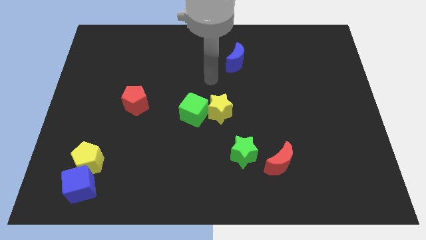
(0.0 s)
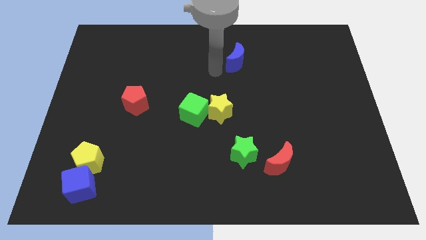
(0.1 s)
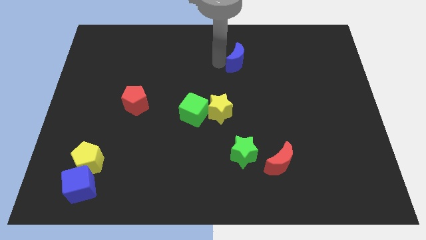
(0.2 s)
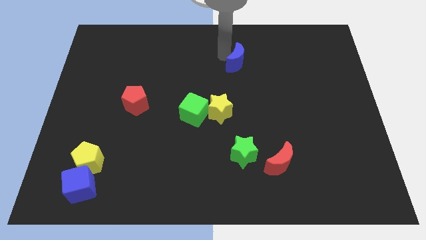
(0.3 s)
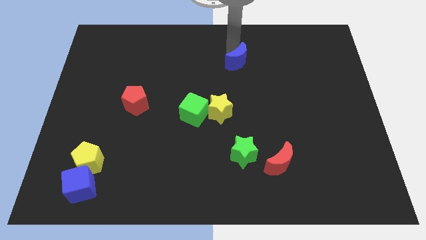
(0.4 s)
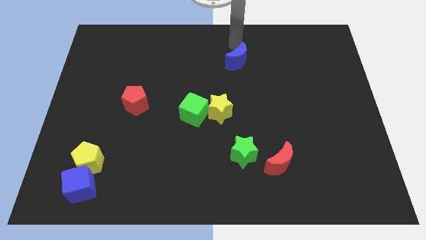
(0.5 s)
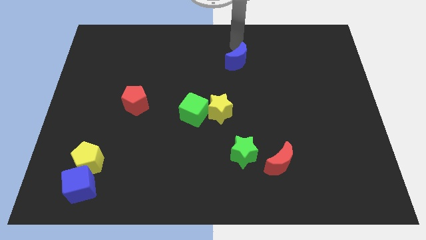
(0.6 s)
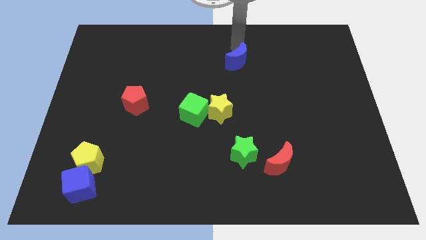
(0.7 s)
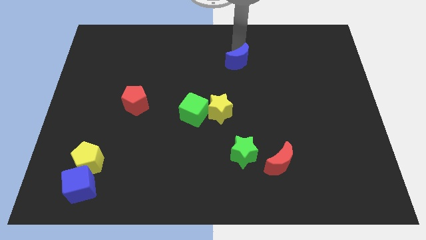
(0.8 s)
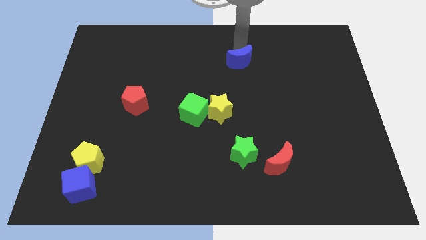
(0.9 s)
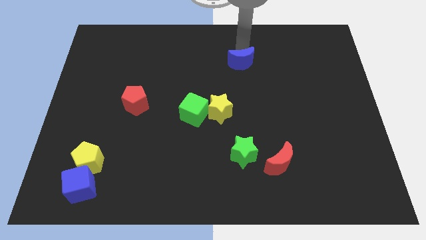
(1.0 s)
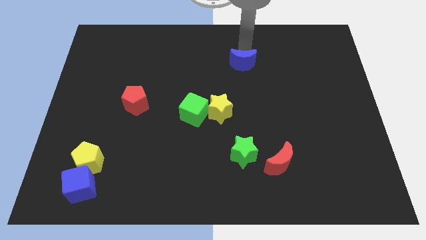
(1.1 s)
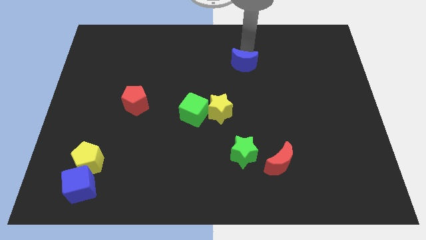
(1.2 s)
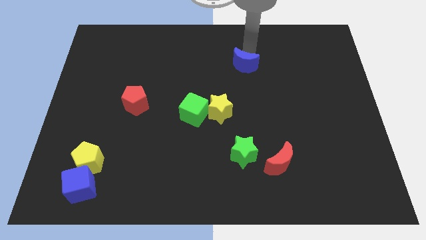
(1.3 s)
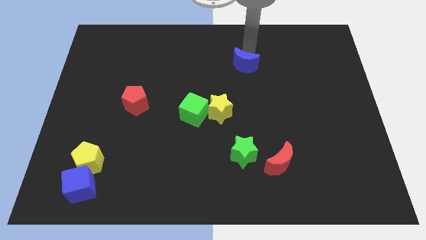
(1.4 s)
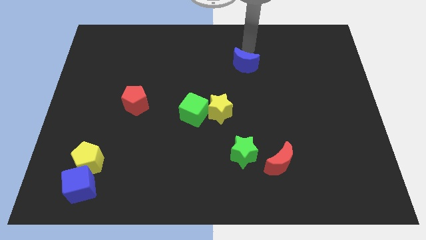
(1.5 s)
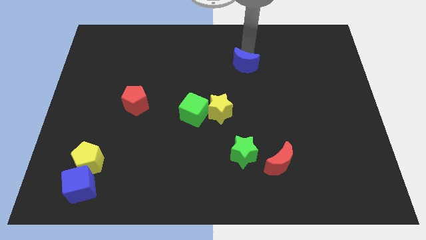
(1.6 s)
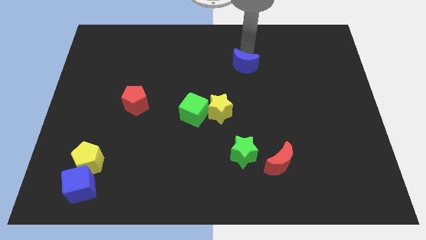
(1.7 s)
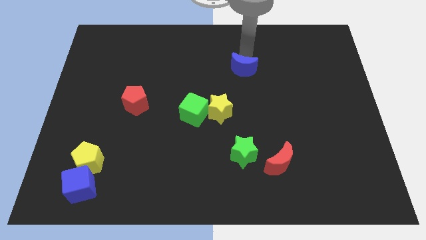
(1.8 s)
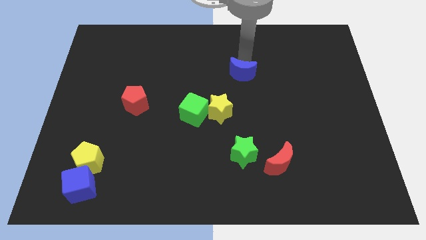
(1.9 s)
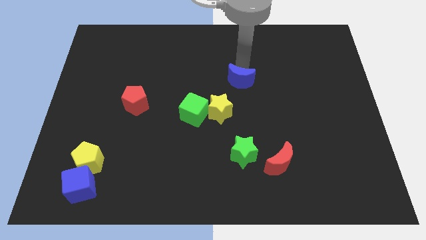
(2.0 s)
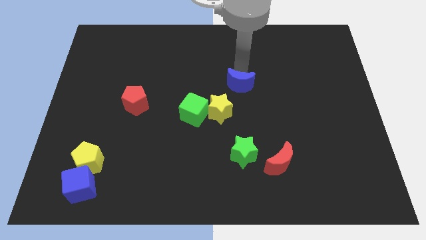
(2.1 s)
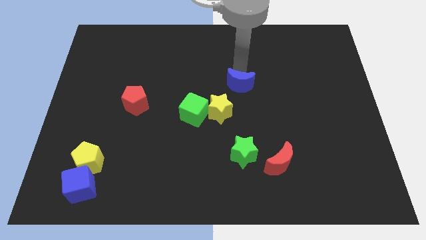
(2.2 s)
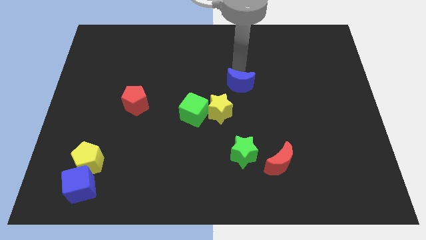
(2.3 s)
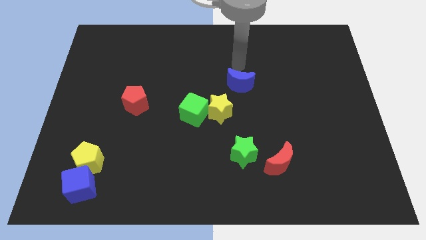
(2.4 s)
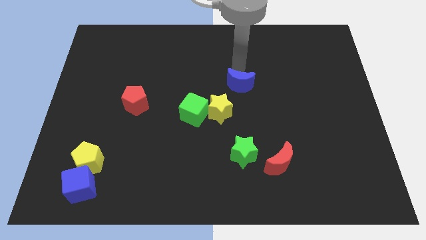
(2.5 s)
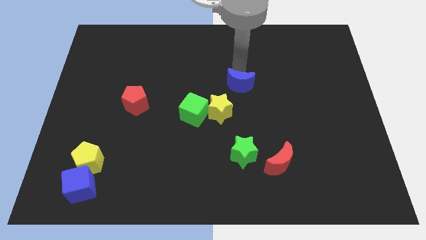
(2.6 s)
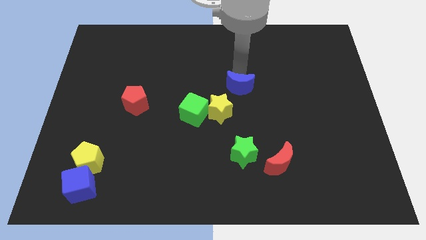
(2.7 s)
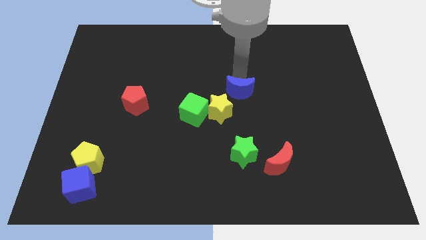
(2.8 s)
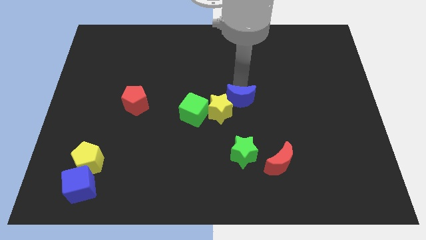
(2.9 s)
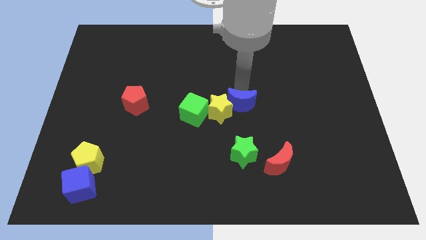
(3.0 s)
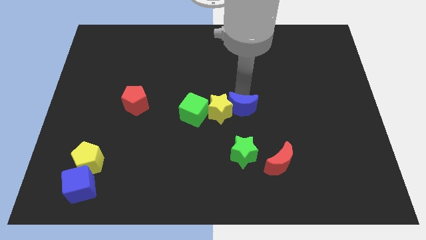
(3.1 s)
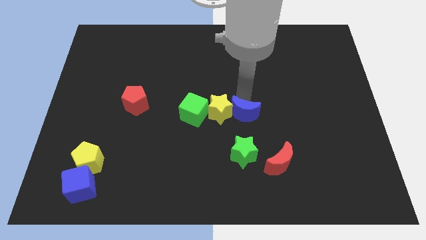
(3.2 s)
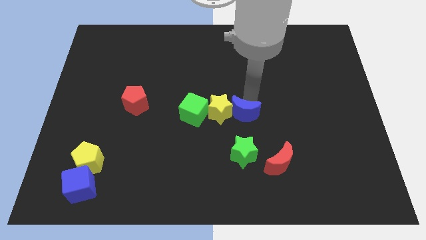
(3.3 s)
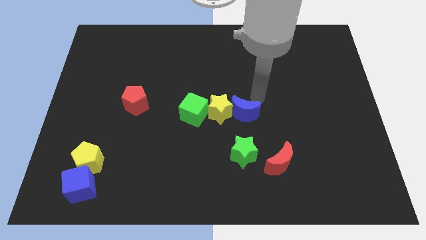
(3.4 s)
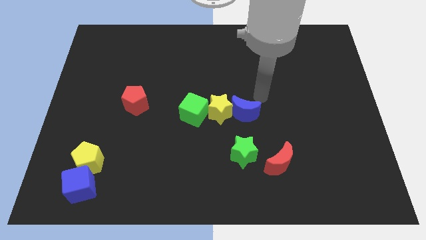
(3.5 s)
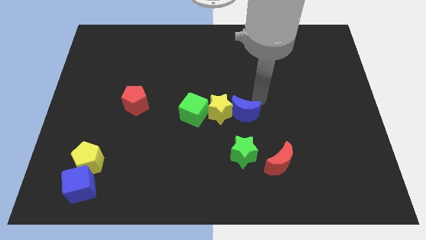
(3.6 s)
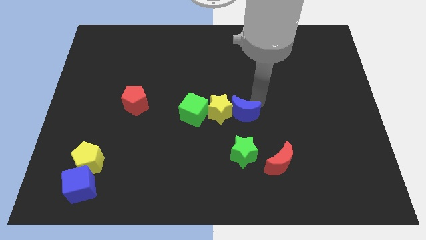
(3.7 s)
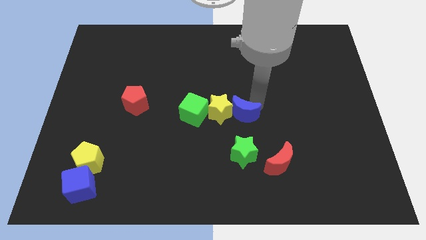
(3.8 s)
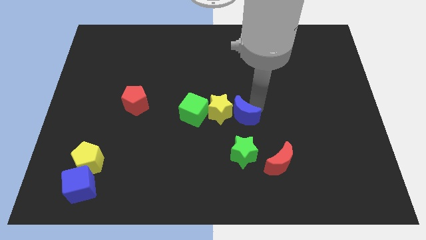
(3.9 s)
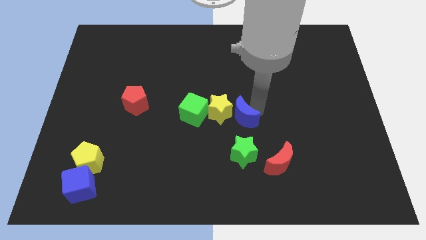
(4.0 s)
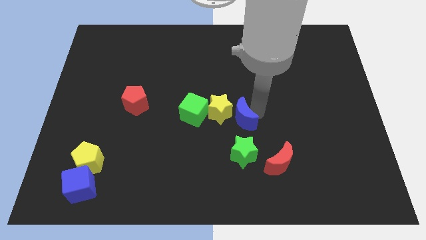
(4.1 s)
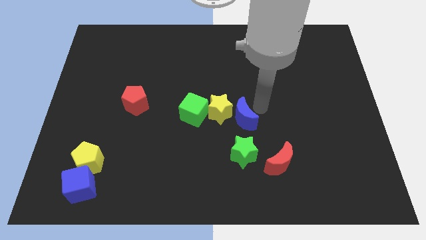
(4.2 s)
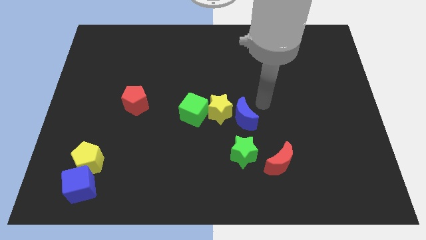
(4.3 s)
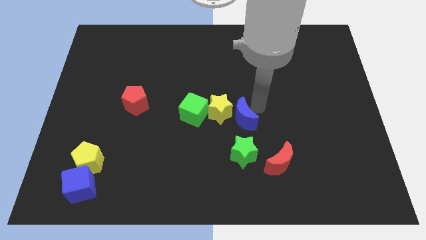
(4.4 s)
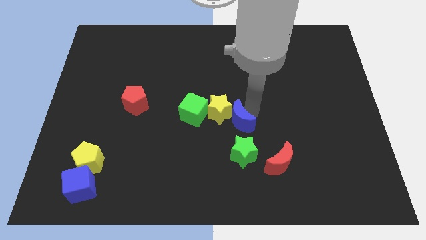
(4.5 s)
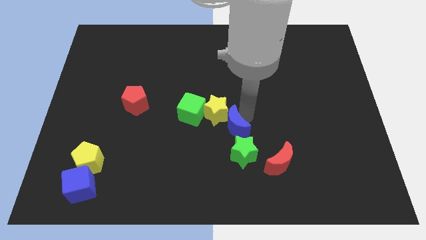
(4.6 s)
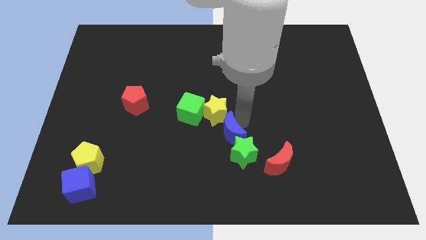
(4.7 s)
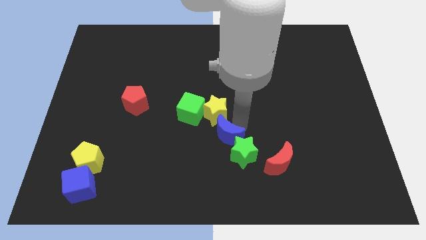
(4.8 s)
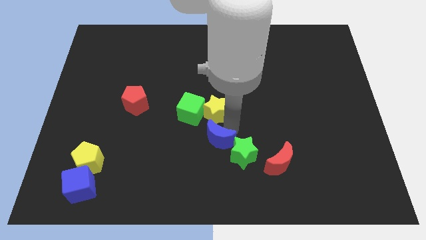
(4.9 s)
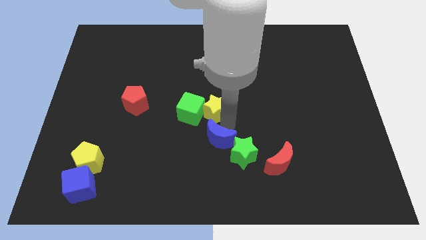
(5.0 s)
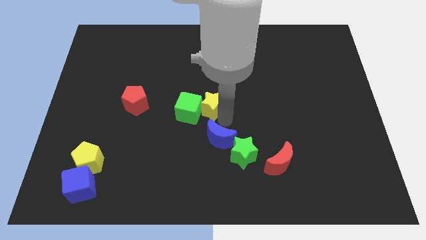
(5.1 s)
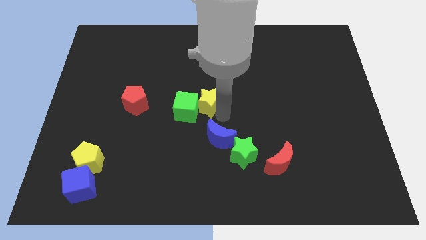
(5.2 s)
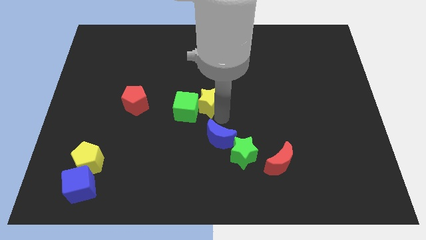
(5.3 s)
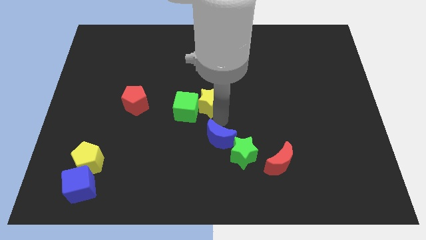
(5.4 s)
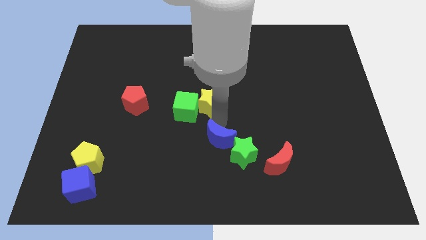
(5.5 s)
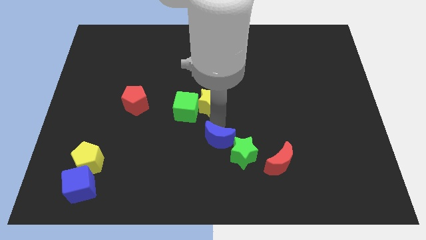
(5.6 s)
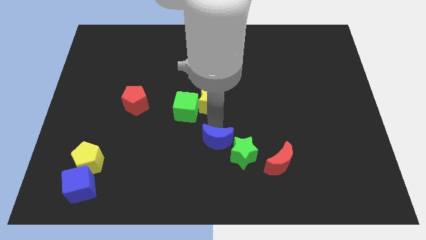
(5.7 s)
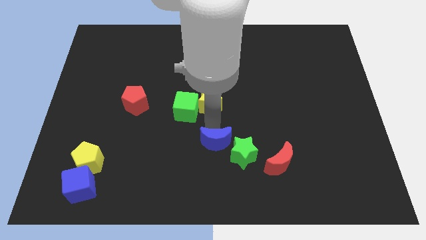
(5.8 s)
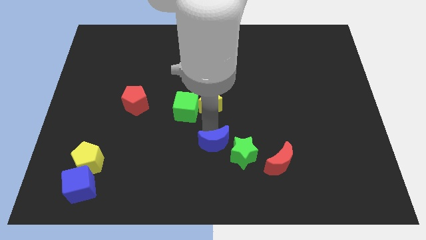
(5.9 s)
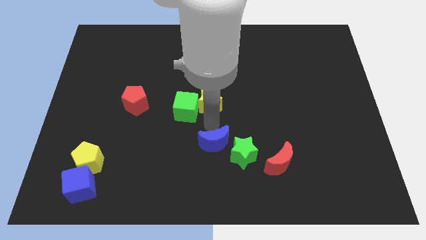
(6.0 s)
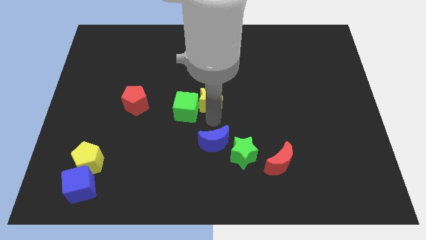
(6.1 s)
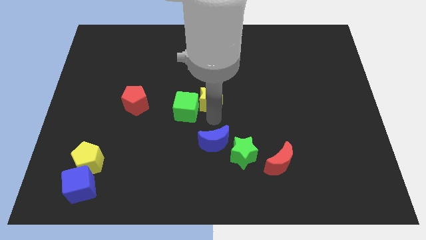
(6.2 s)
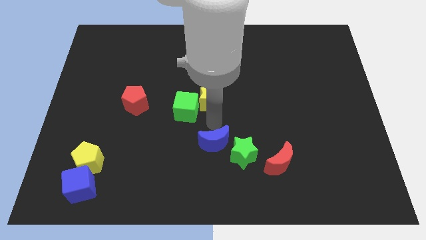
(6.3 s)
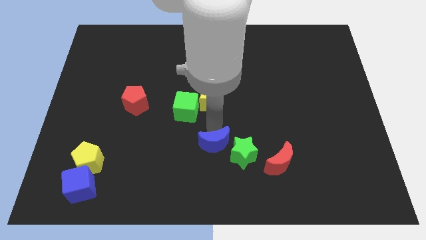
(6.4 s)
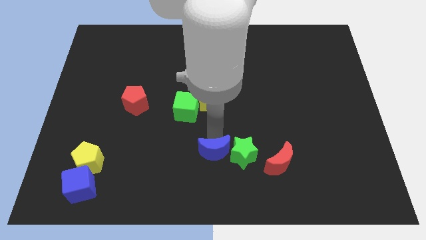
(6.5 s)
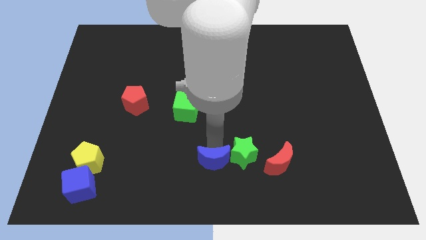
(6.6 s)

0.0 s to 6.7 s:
move the blue moon to the bottom side

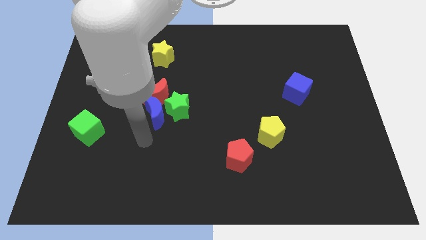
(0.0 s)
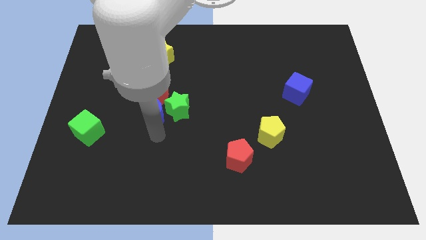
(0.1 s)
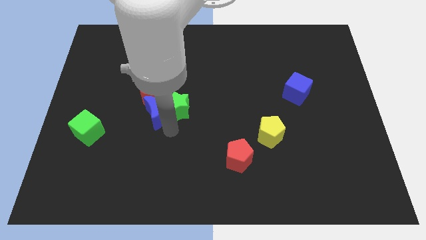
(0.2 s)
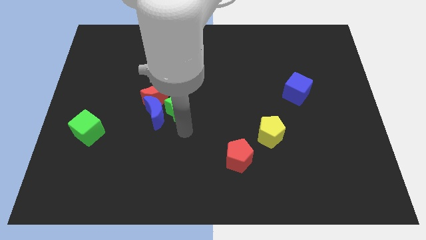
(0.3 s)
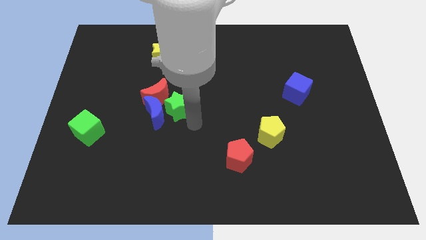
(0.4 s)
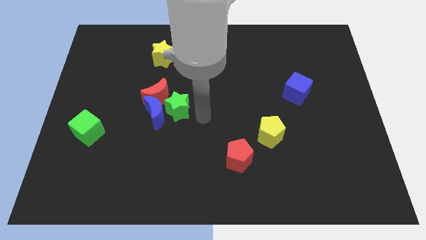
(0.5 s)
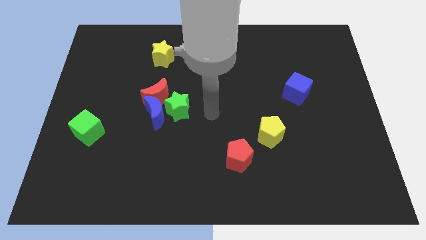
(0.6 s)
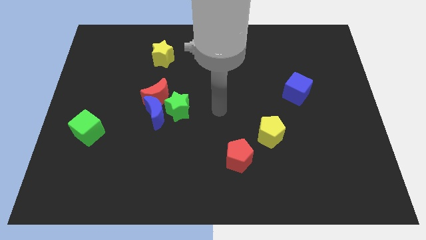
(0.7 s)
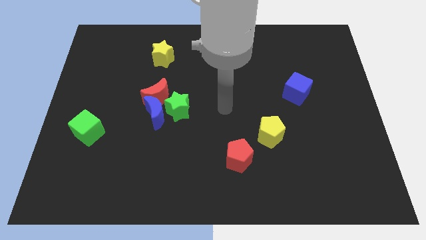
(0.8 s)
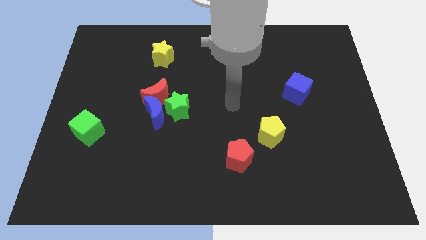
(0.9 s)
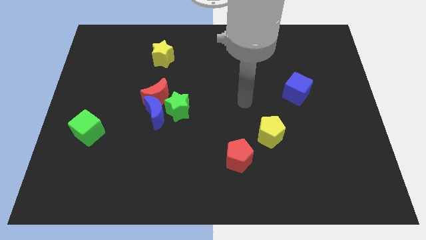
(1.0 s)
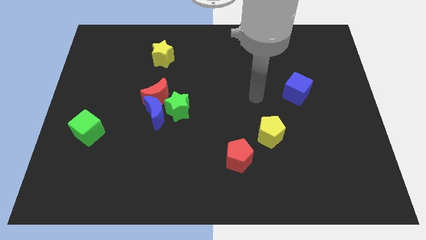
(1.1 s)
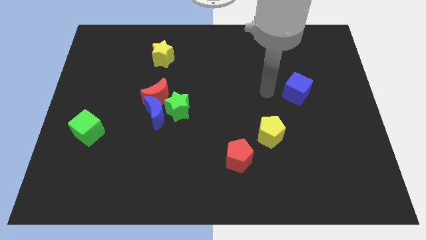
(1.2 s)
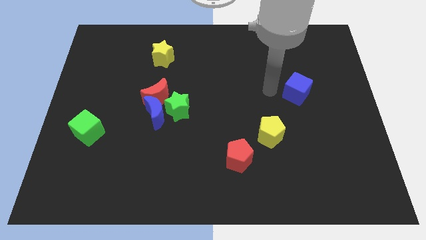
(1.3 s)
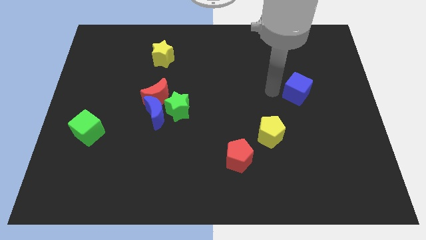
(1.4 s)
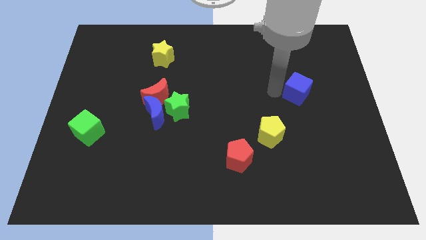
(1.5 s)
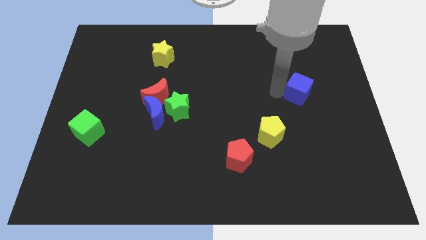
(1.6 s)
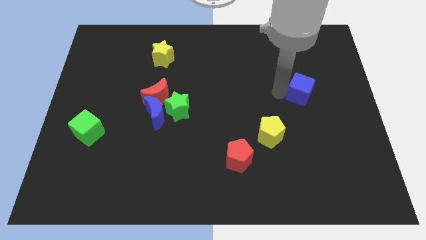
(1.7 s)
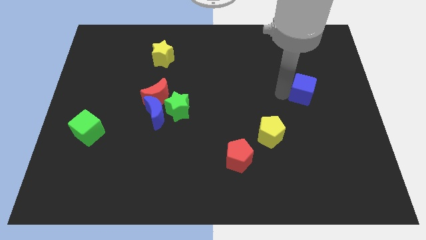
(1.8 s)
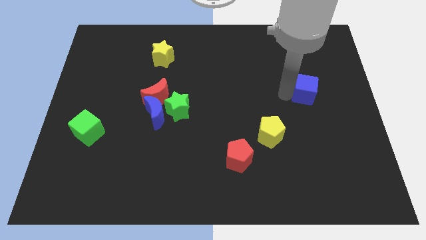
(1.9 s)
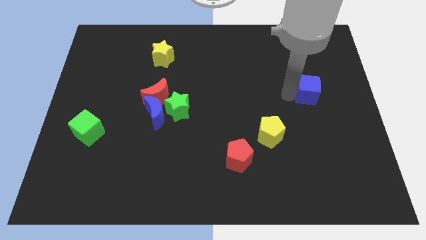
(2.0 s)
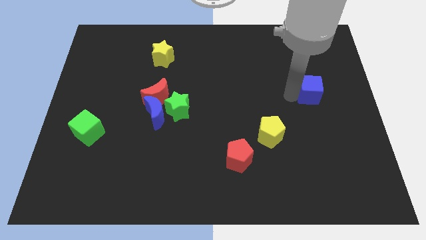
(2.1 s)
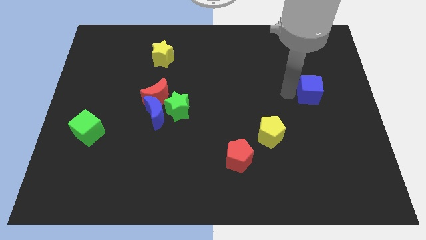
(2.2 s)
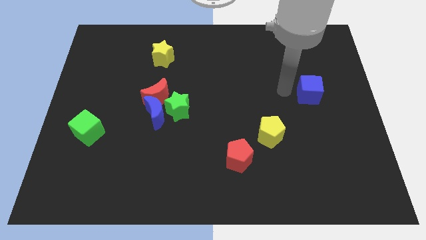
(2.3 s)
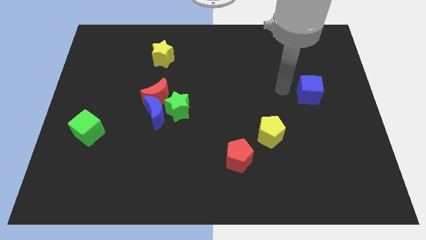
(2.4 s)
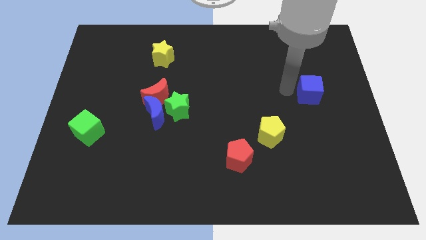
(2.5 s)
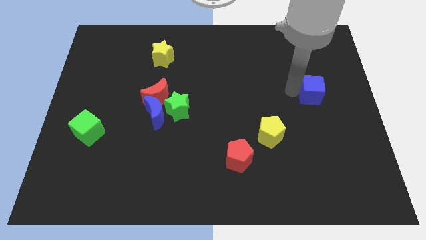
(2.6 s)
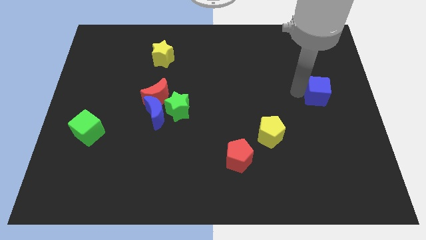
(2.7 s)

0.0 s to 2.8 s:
slide the blue cube to the right side of the board
